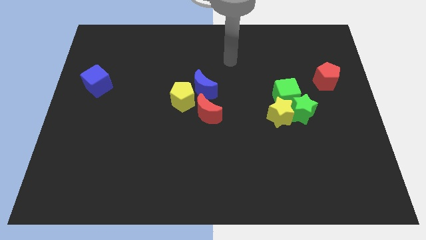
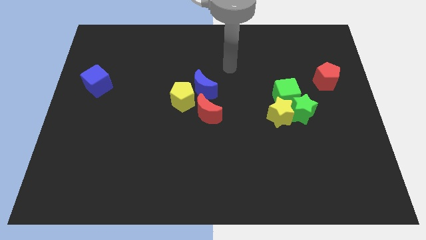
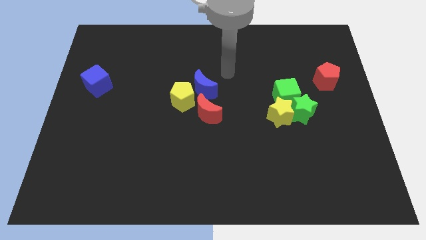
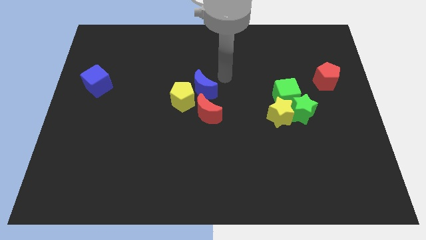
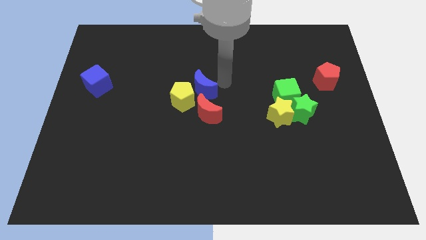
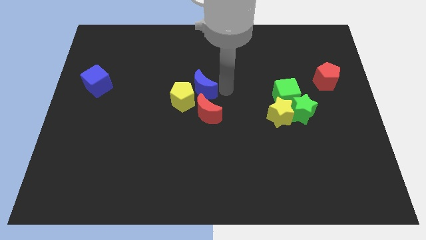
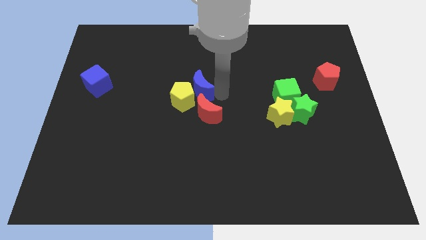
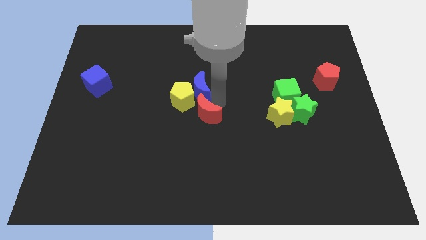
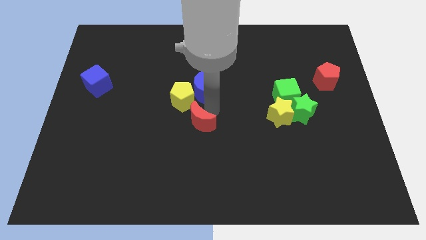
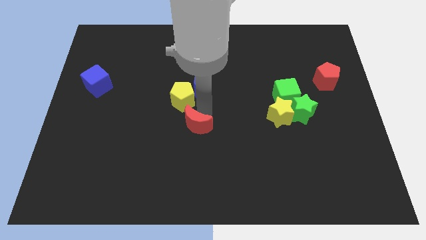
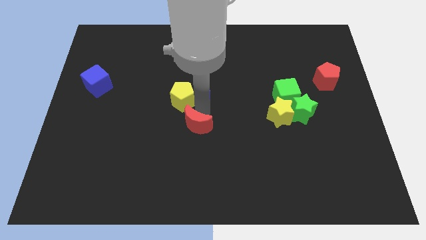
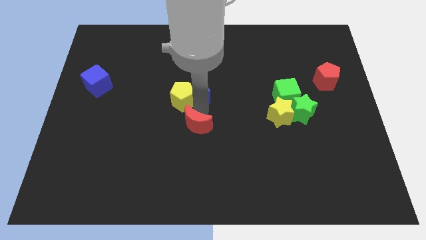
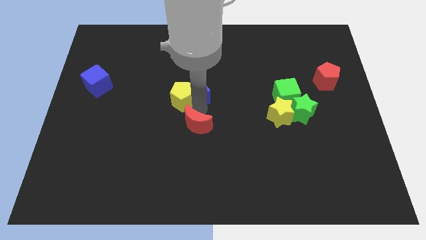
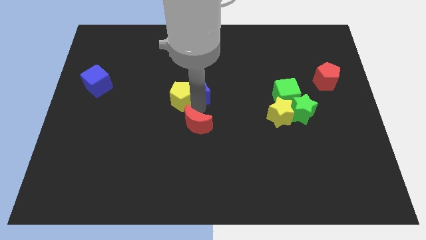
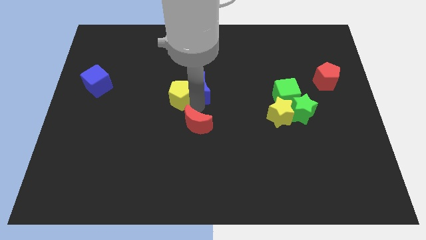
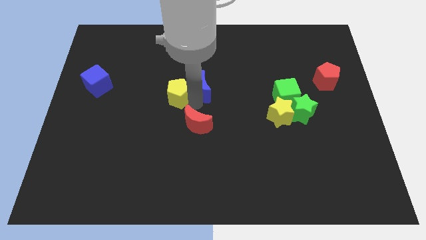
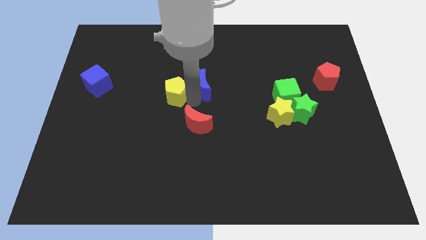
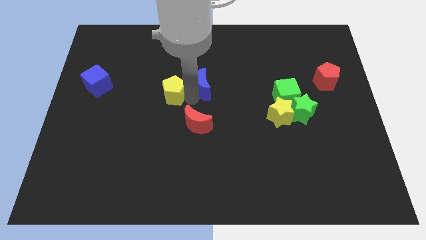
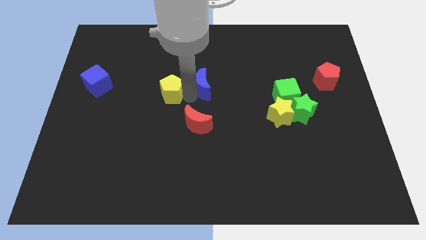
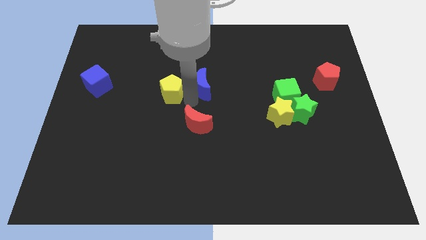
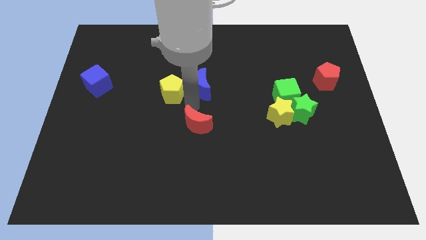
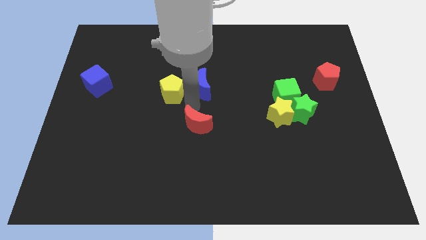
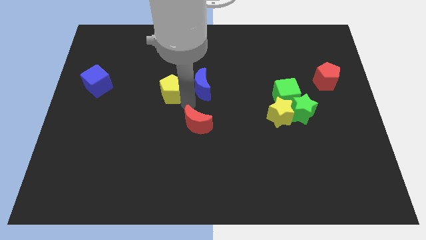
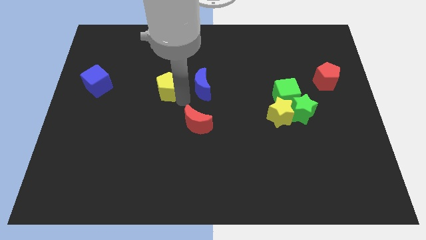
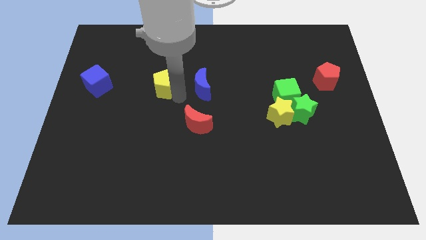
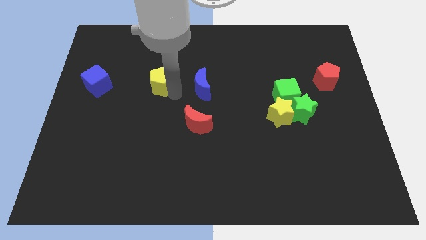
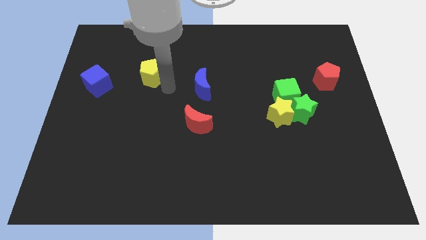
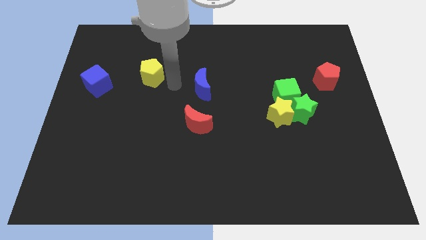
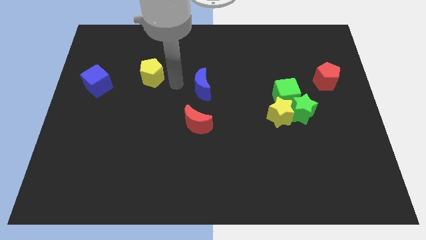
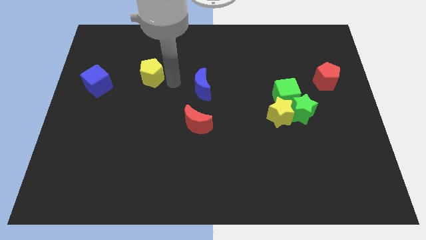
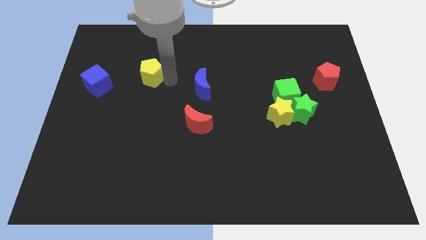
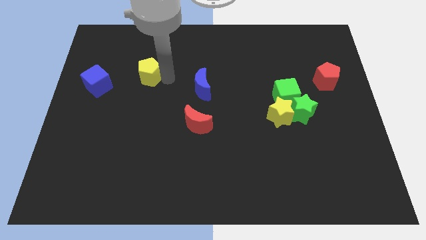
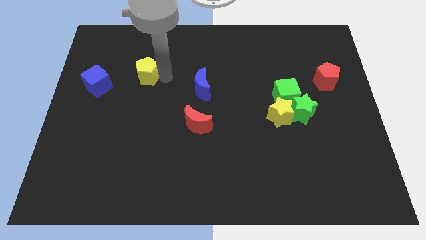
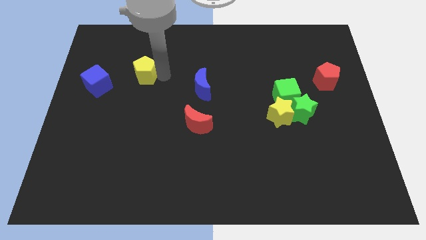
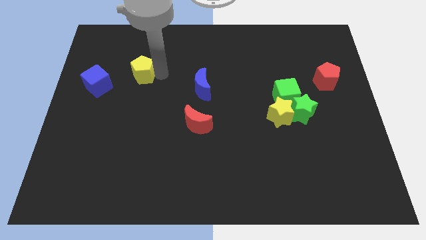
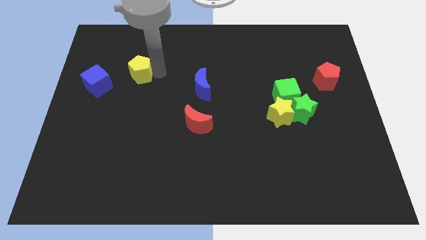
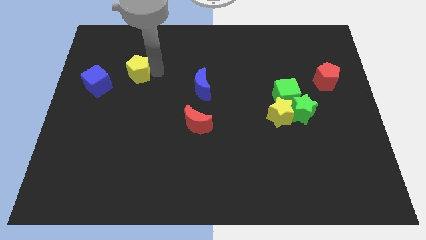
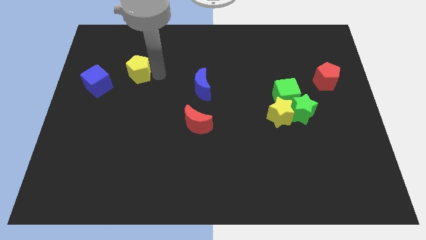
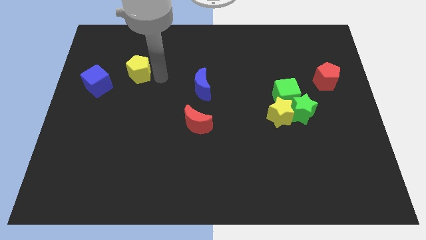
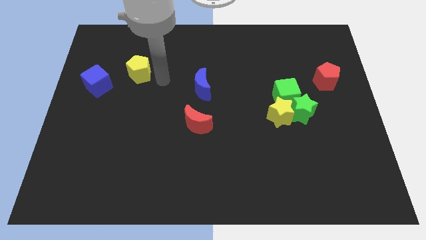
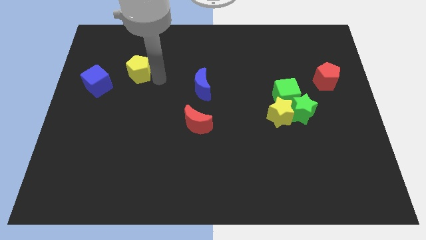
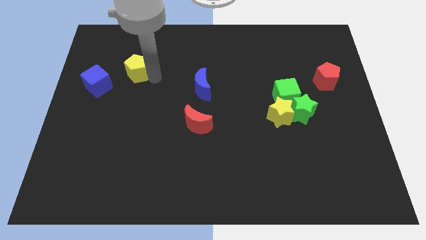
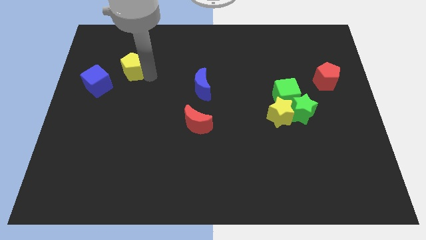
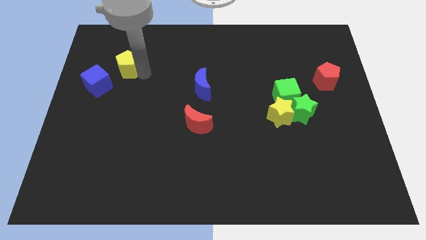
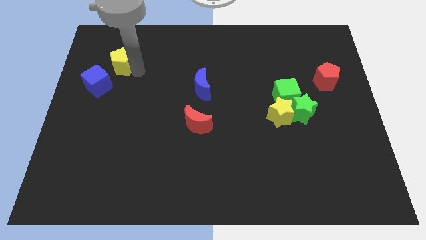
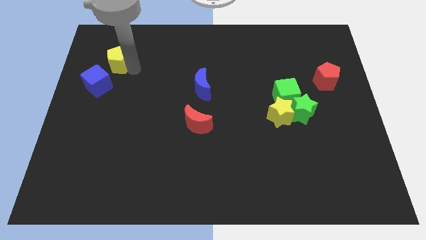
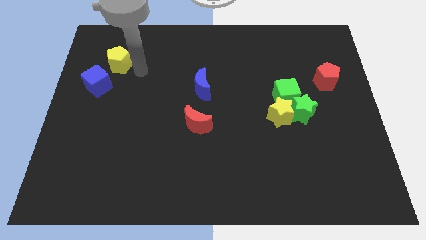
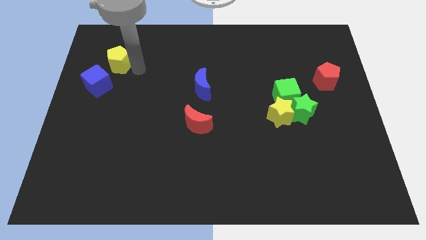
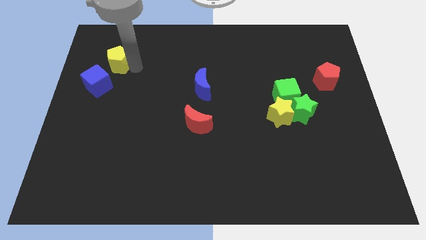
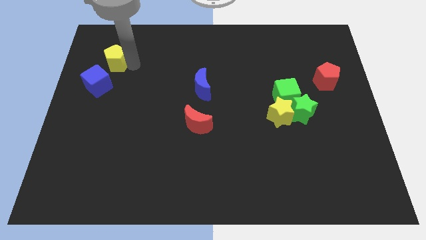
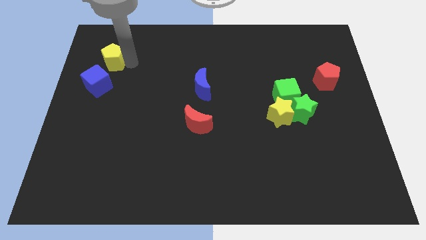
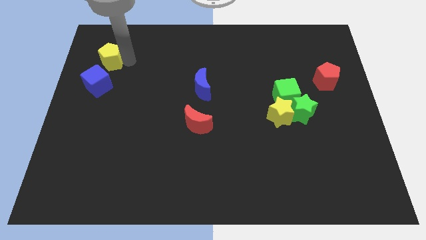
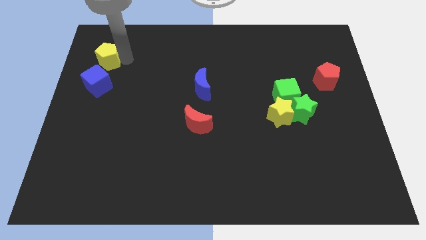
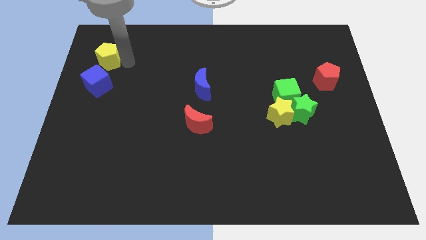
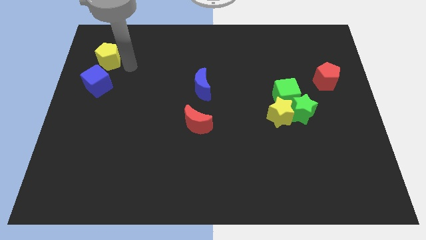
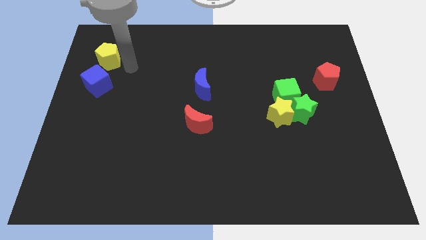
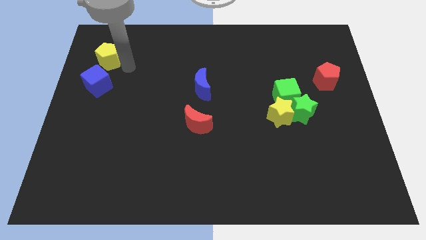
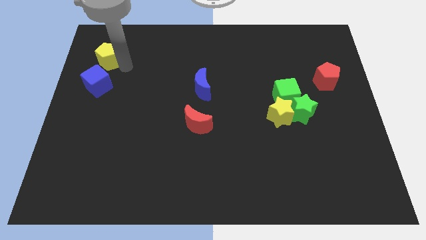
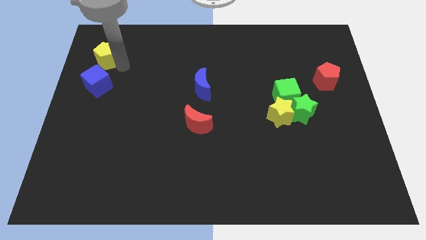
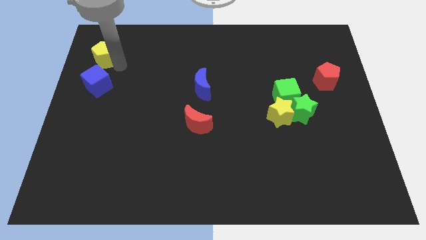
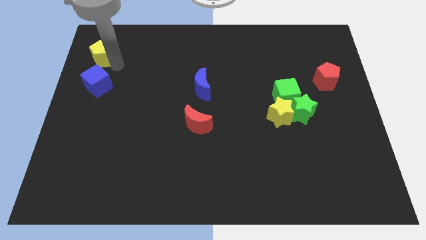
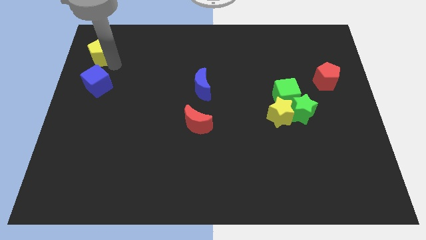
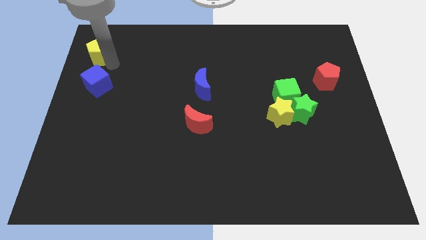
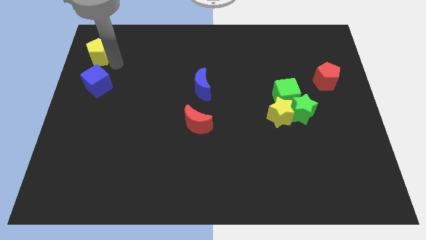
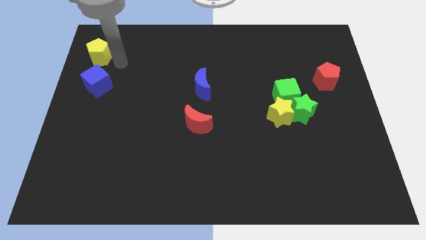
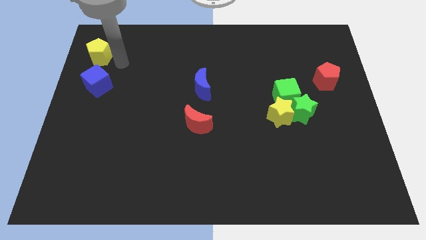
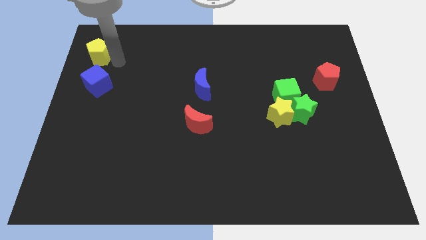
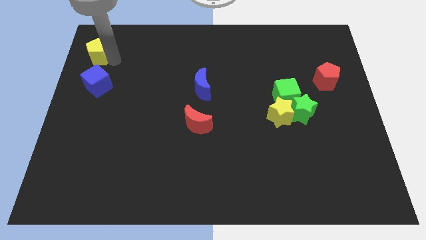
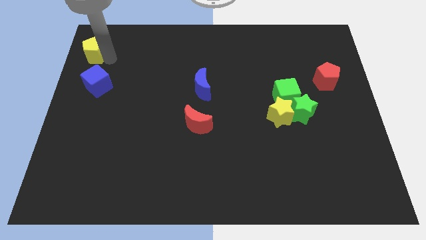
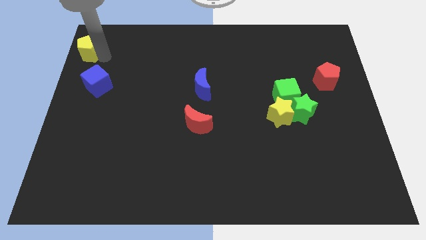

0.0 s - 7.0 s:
put the yellow pentagon to the top left corner
